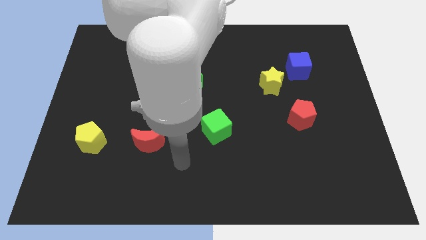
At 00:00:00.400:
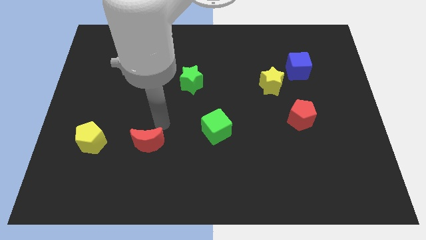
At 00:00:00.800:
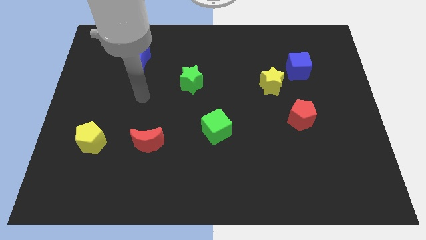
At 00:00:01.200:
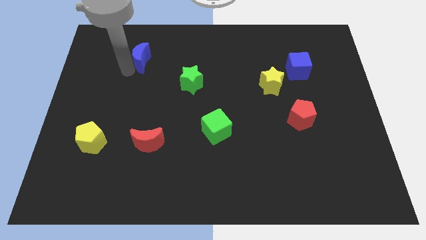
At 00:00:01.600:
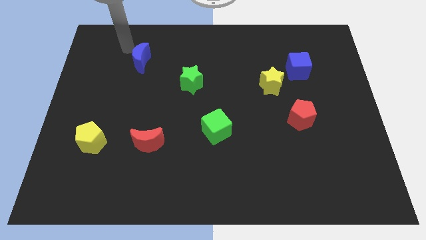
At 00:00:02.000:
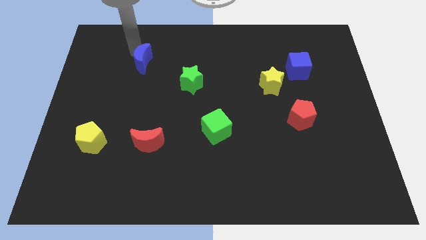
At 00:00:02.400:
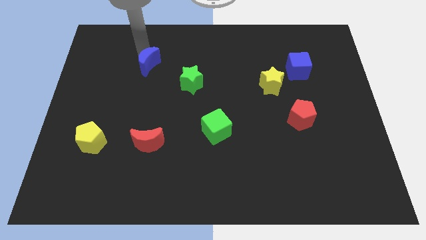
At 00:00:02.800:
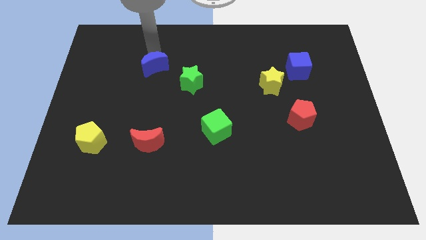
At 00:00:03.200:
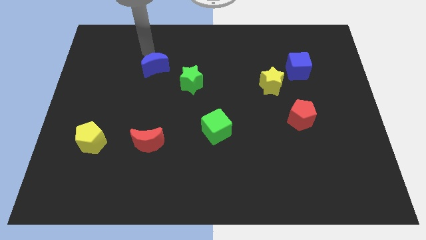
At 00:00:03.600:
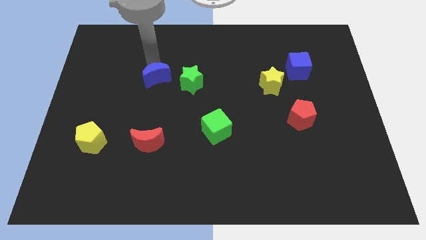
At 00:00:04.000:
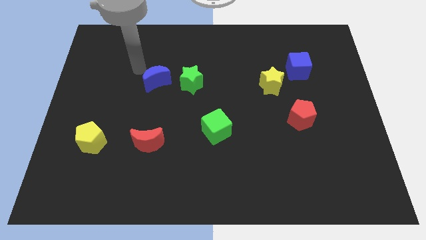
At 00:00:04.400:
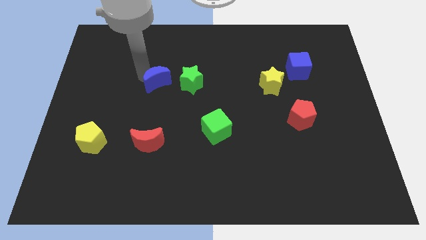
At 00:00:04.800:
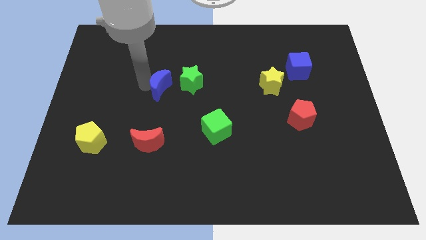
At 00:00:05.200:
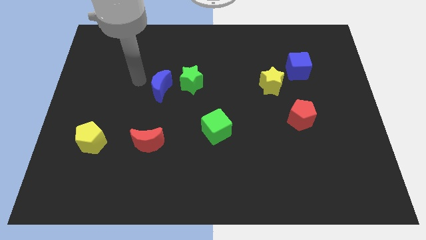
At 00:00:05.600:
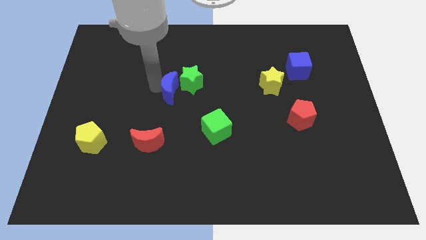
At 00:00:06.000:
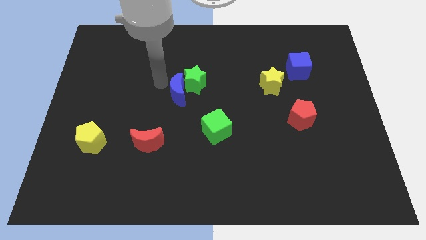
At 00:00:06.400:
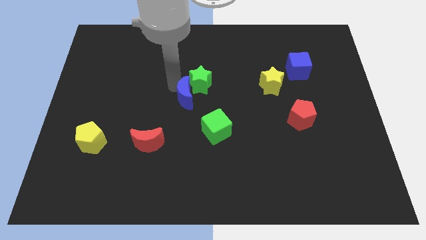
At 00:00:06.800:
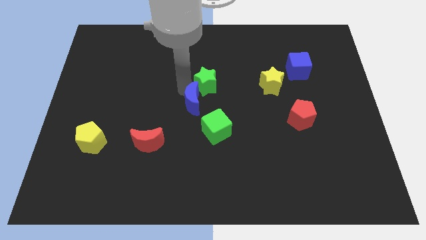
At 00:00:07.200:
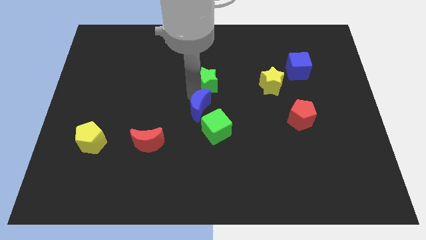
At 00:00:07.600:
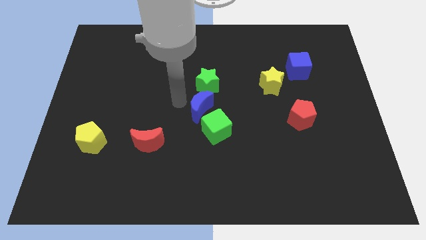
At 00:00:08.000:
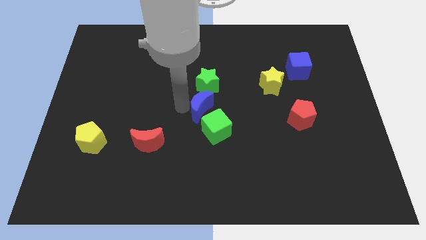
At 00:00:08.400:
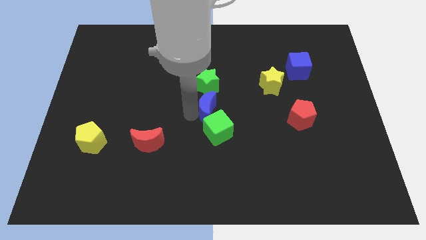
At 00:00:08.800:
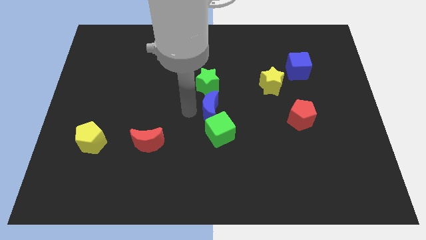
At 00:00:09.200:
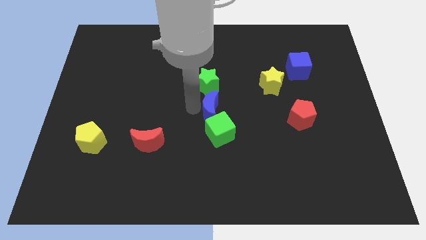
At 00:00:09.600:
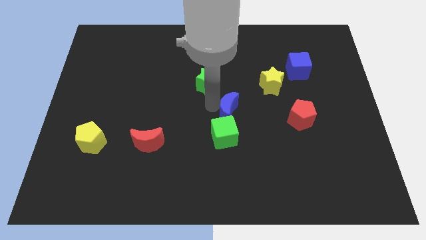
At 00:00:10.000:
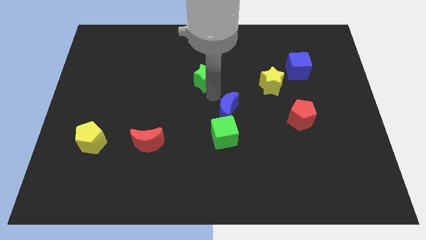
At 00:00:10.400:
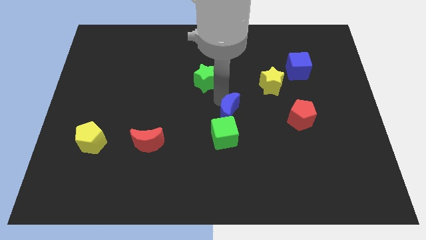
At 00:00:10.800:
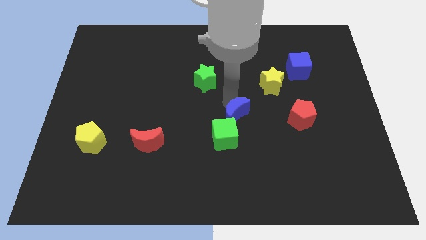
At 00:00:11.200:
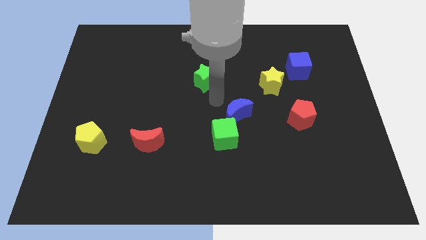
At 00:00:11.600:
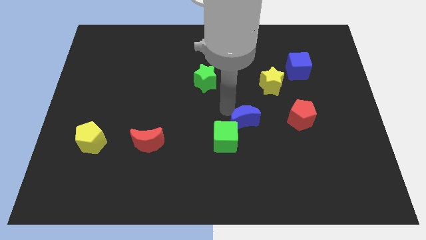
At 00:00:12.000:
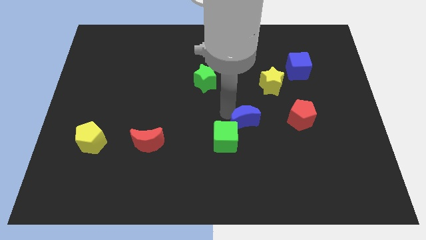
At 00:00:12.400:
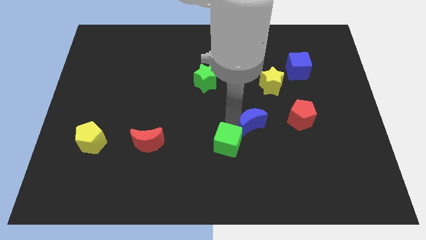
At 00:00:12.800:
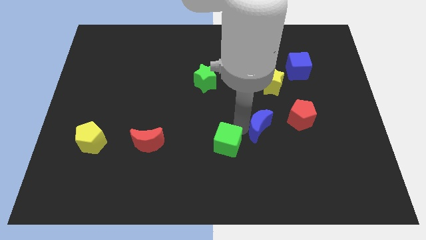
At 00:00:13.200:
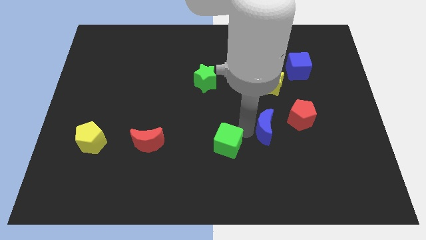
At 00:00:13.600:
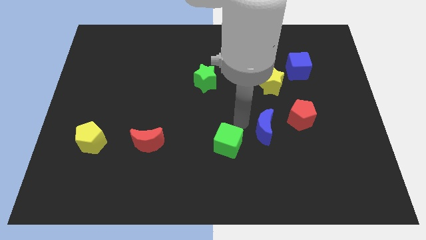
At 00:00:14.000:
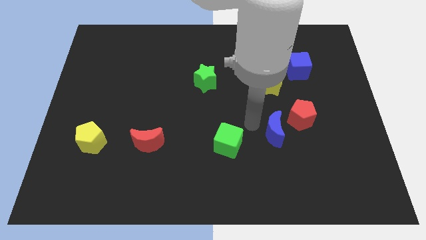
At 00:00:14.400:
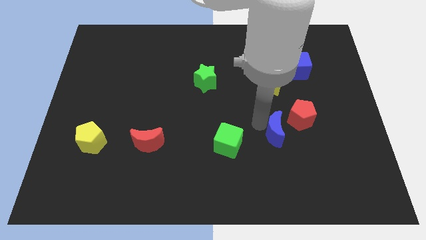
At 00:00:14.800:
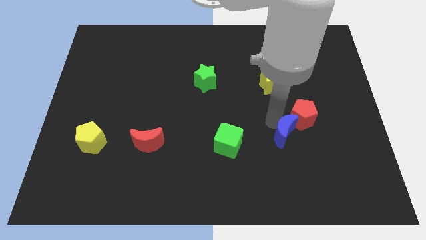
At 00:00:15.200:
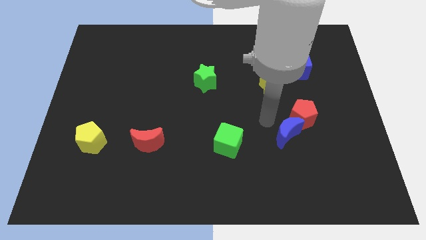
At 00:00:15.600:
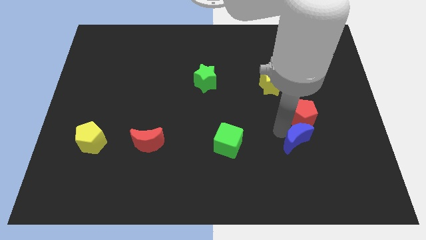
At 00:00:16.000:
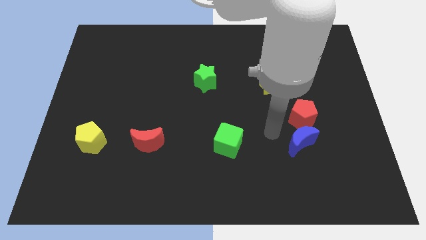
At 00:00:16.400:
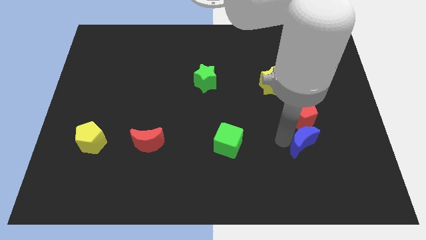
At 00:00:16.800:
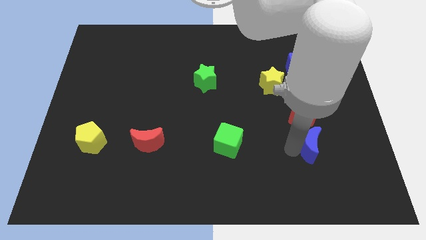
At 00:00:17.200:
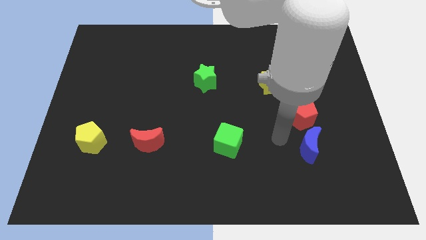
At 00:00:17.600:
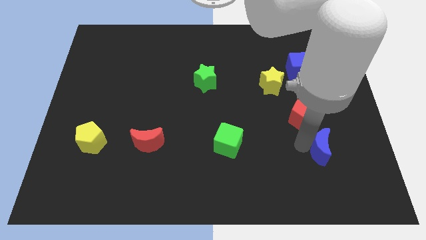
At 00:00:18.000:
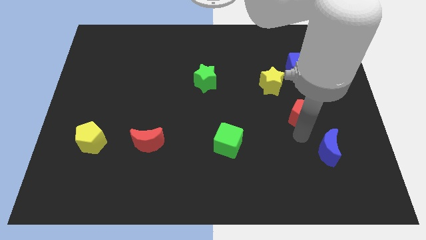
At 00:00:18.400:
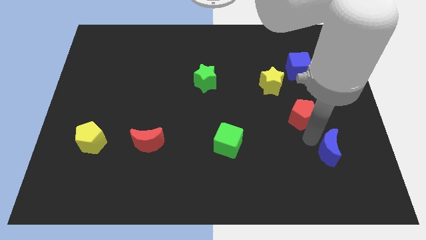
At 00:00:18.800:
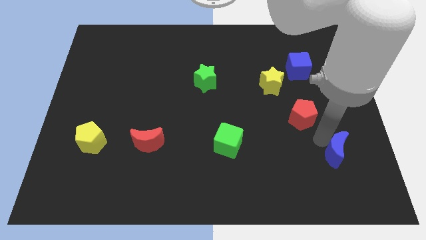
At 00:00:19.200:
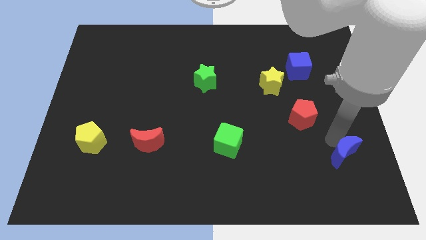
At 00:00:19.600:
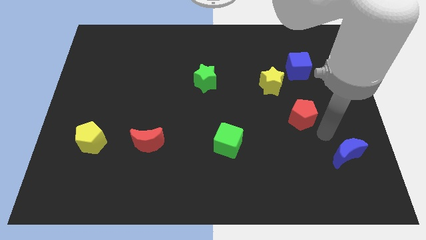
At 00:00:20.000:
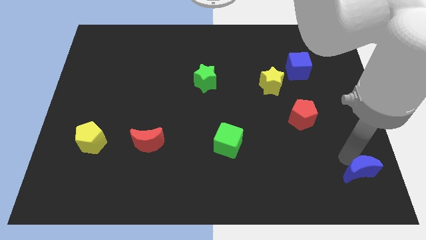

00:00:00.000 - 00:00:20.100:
put the blue moon to the bottom right corner

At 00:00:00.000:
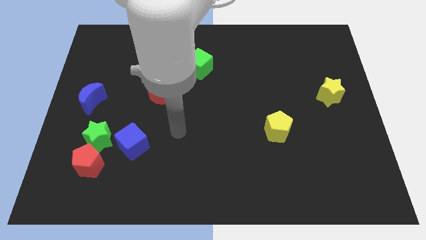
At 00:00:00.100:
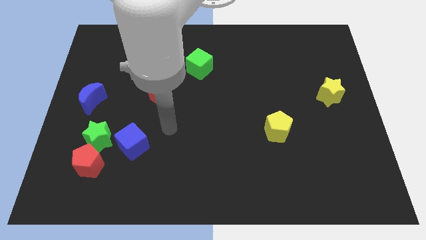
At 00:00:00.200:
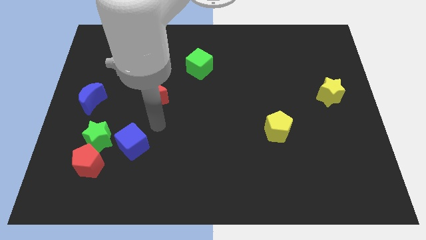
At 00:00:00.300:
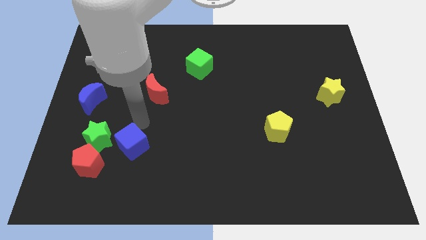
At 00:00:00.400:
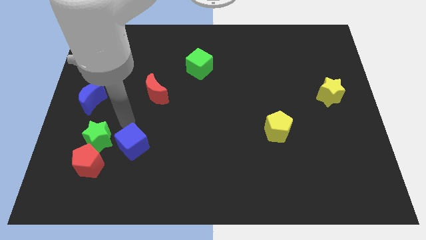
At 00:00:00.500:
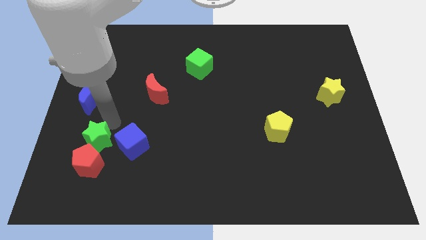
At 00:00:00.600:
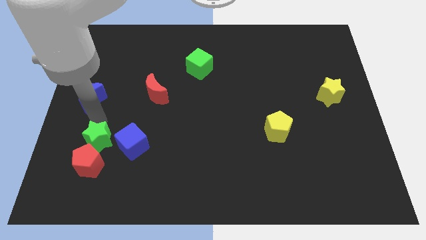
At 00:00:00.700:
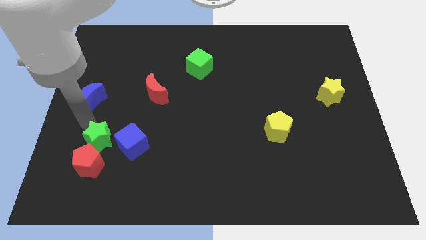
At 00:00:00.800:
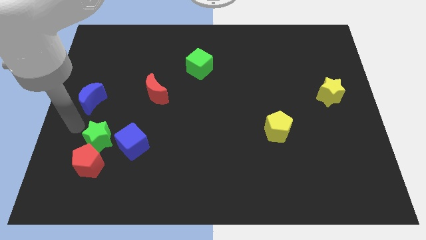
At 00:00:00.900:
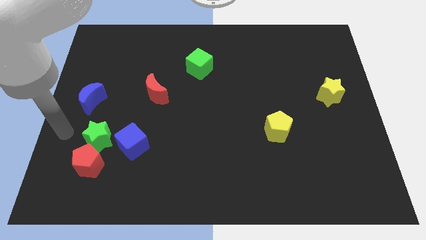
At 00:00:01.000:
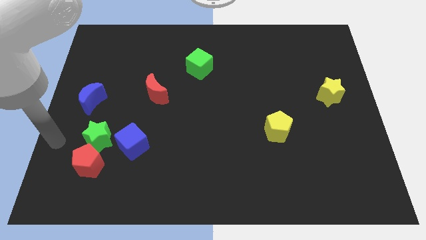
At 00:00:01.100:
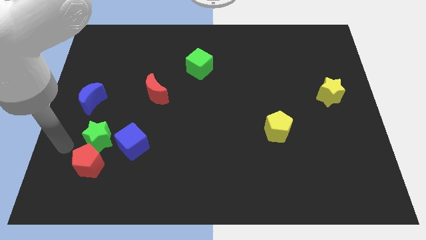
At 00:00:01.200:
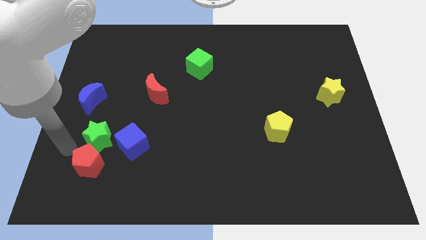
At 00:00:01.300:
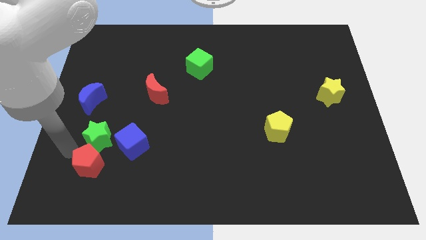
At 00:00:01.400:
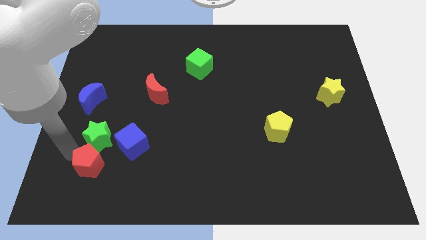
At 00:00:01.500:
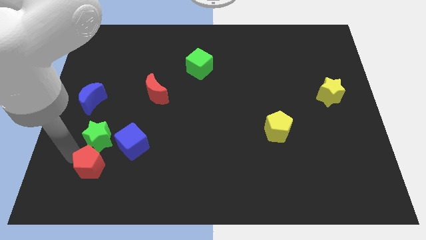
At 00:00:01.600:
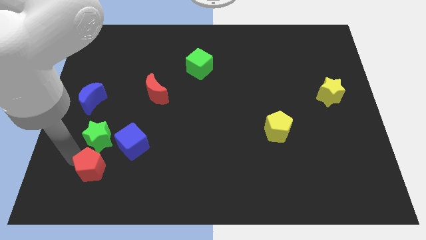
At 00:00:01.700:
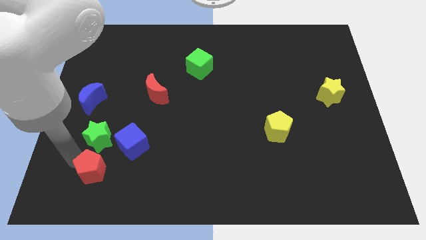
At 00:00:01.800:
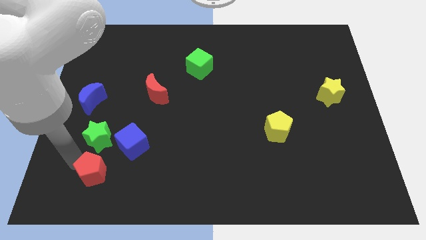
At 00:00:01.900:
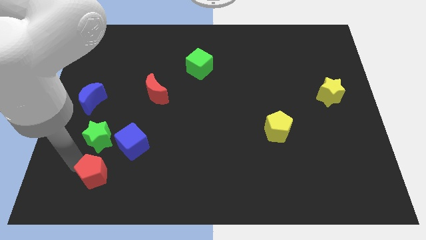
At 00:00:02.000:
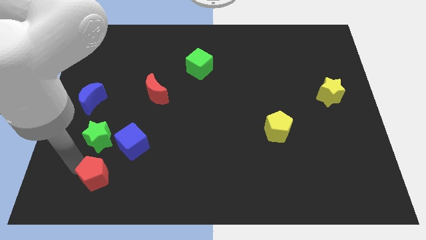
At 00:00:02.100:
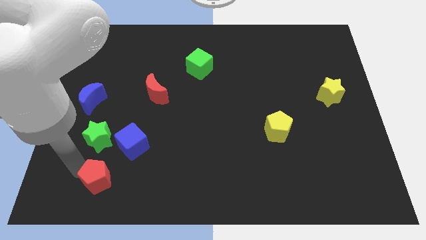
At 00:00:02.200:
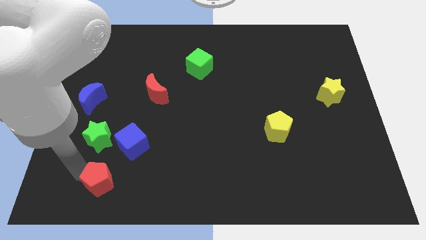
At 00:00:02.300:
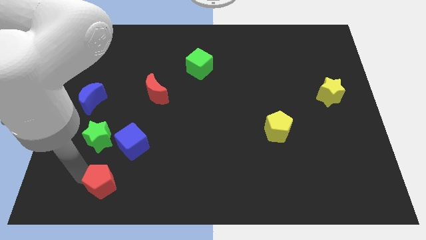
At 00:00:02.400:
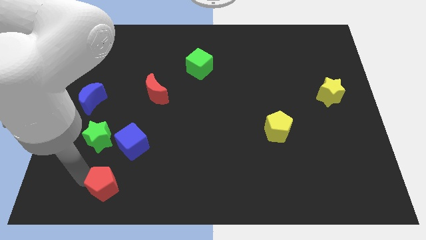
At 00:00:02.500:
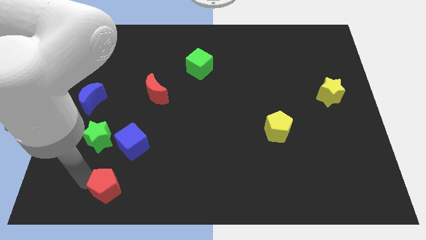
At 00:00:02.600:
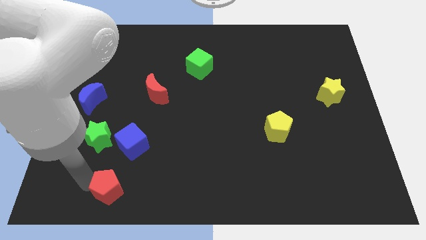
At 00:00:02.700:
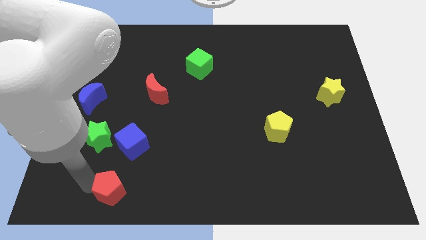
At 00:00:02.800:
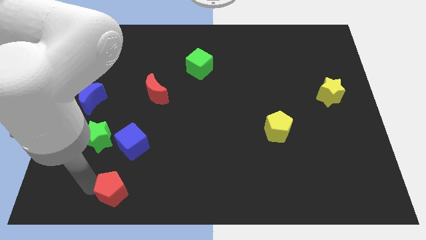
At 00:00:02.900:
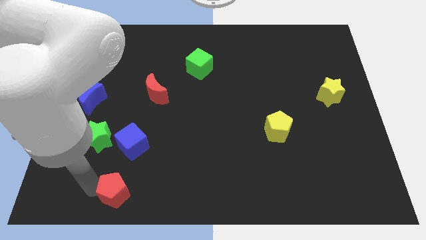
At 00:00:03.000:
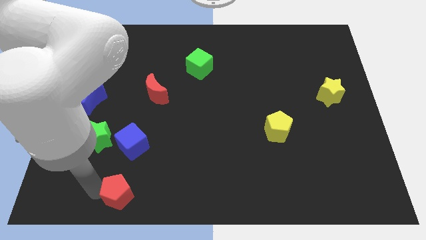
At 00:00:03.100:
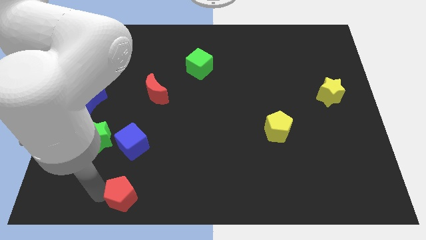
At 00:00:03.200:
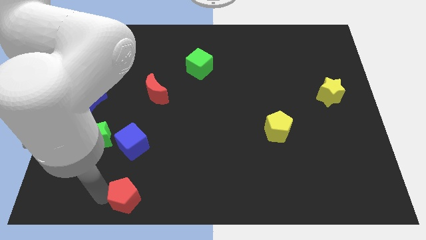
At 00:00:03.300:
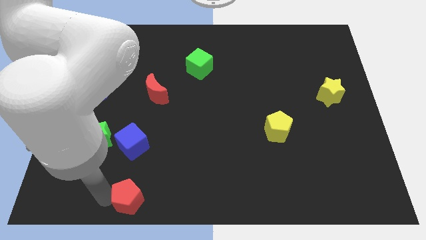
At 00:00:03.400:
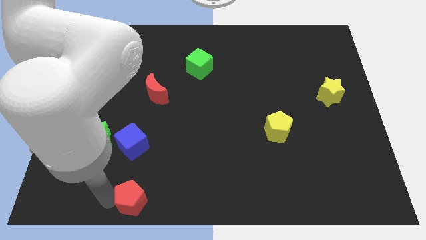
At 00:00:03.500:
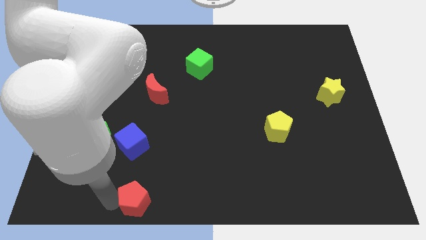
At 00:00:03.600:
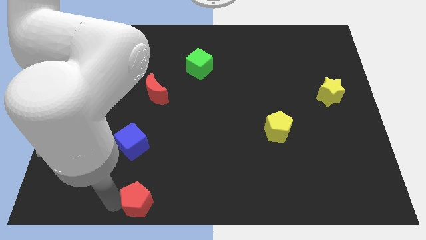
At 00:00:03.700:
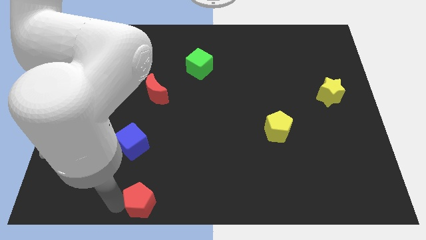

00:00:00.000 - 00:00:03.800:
slide the red pentagon to the bottom side
